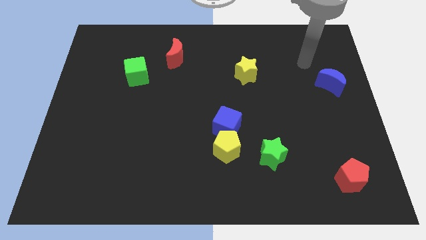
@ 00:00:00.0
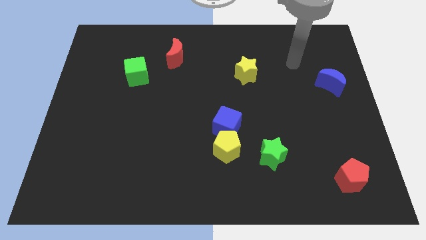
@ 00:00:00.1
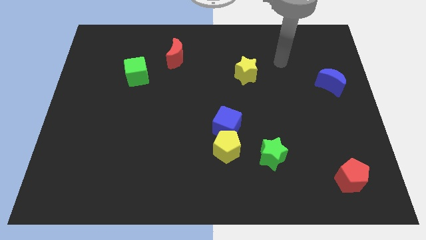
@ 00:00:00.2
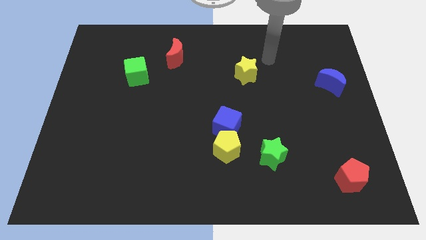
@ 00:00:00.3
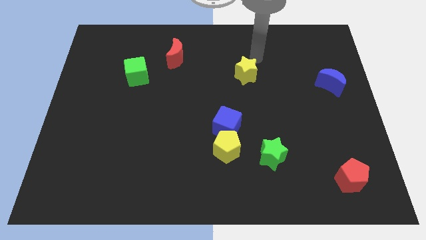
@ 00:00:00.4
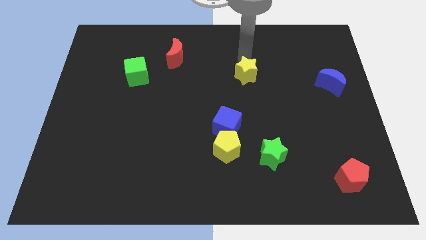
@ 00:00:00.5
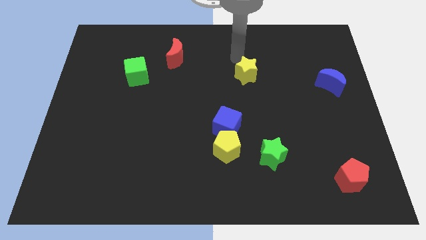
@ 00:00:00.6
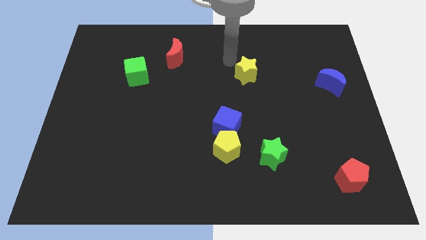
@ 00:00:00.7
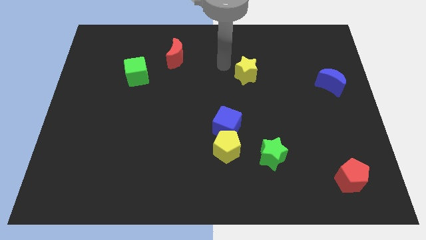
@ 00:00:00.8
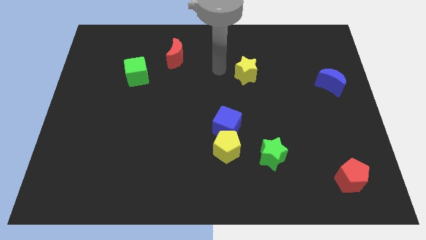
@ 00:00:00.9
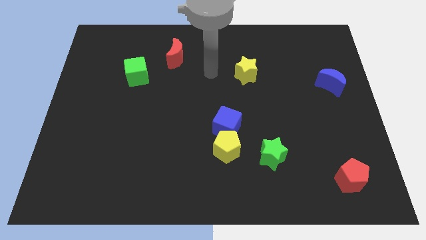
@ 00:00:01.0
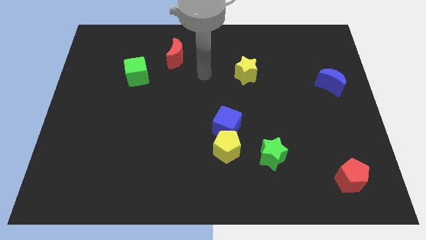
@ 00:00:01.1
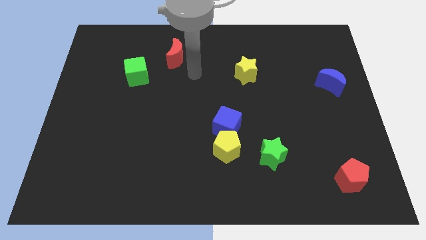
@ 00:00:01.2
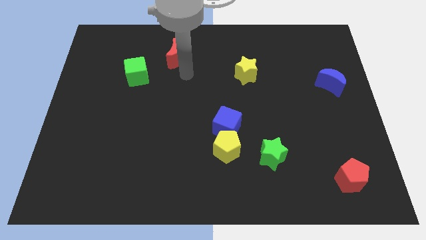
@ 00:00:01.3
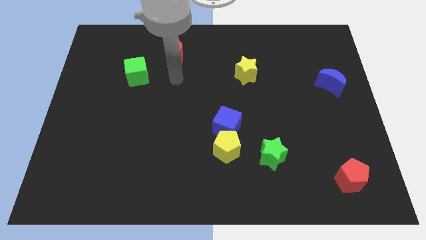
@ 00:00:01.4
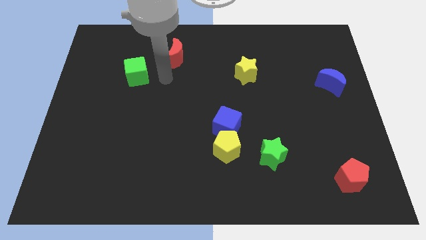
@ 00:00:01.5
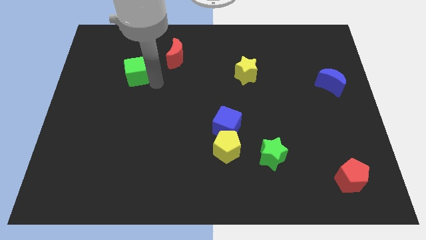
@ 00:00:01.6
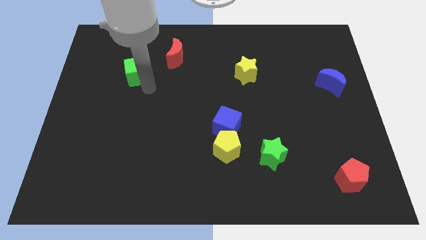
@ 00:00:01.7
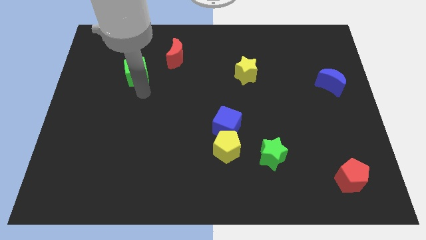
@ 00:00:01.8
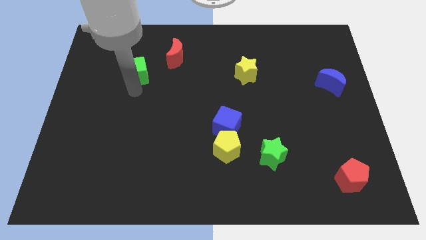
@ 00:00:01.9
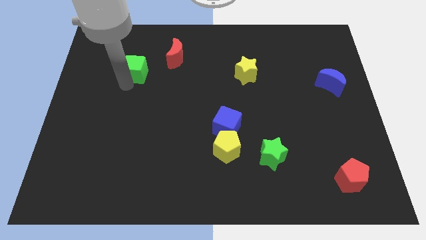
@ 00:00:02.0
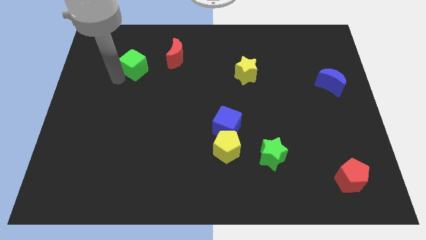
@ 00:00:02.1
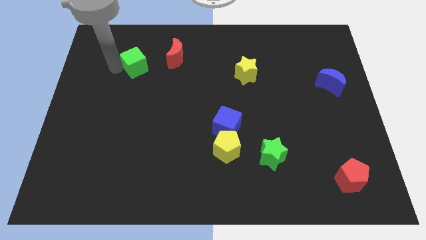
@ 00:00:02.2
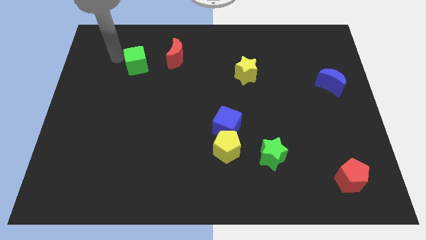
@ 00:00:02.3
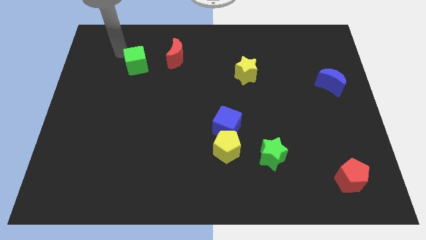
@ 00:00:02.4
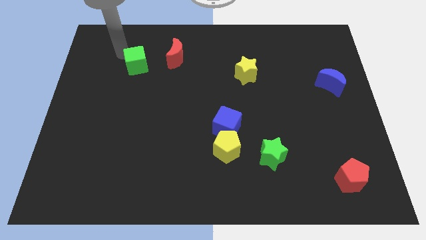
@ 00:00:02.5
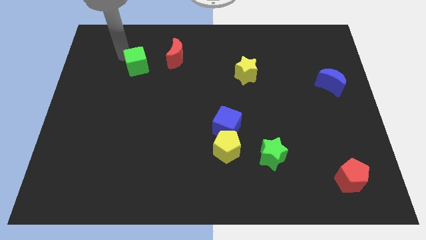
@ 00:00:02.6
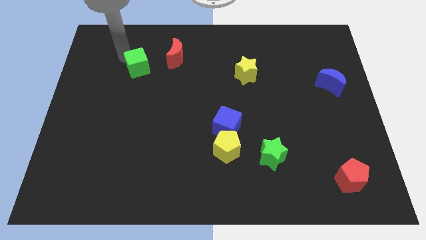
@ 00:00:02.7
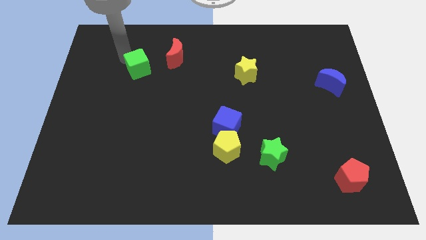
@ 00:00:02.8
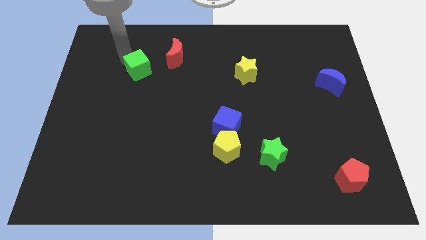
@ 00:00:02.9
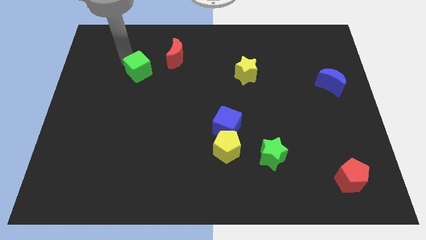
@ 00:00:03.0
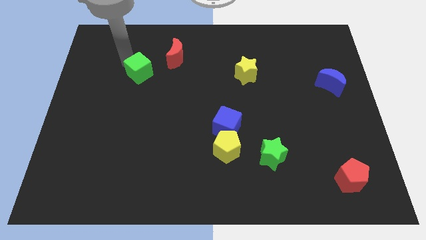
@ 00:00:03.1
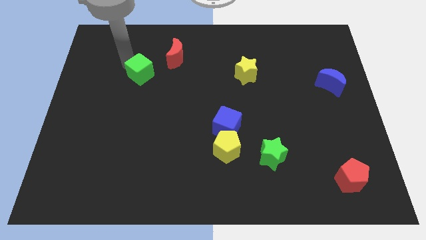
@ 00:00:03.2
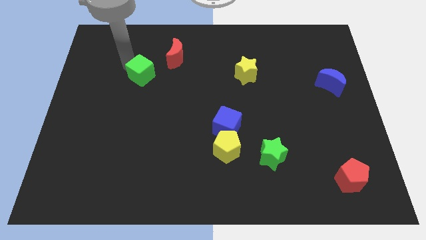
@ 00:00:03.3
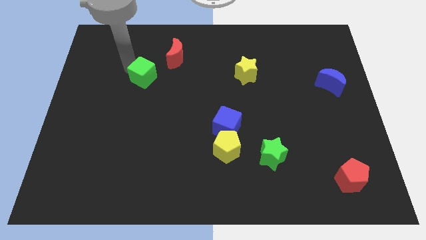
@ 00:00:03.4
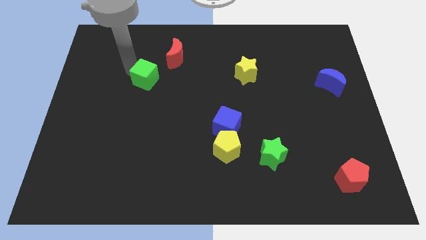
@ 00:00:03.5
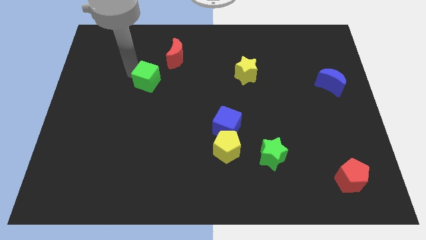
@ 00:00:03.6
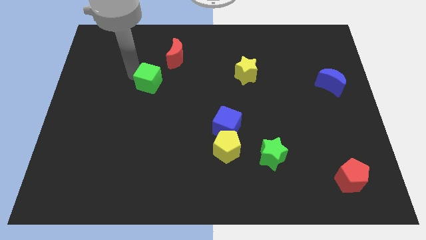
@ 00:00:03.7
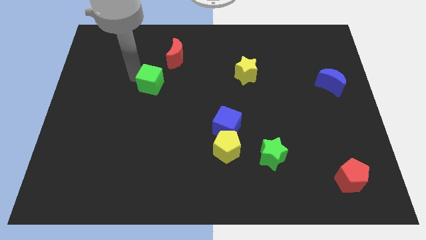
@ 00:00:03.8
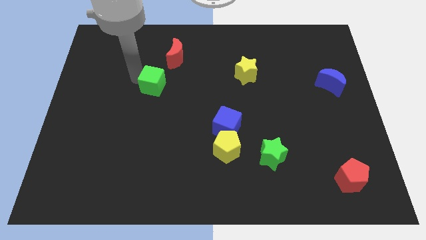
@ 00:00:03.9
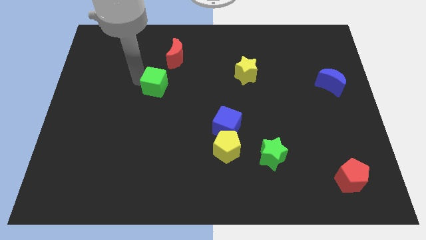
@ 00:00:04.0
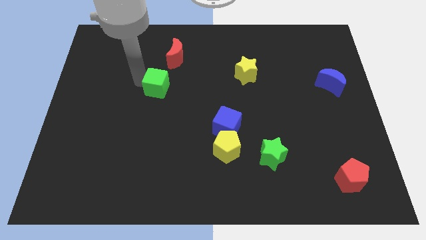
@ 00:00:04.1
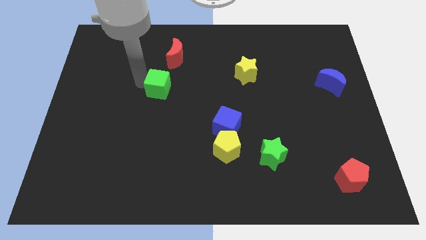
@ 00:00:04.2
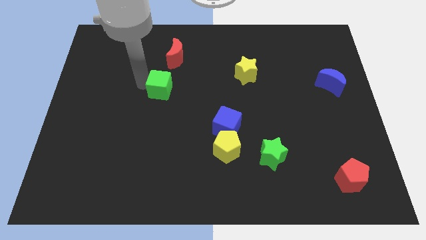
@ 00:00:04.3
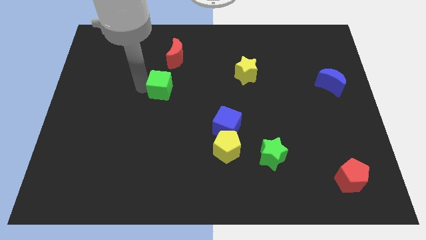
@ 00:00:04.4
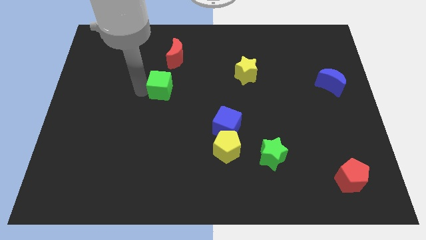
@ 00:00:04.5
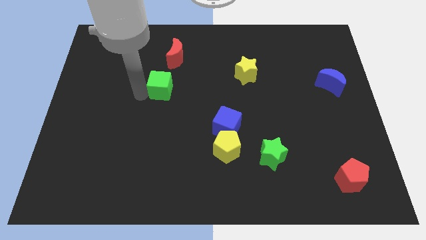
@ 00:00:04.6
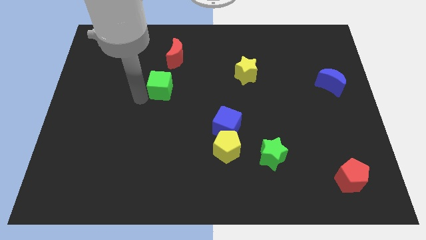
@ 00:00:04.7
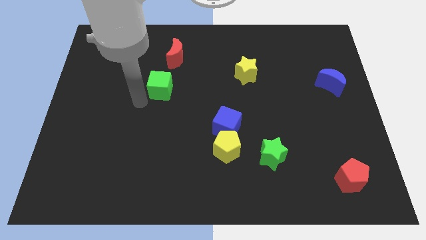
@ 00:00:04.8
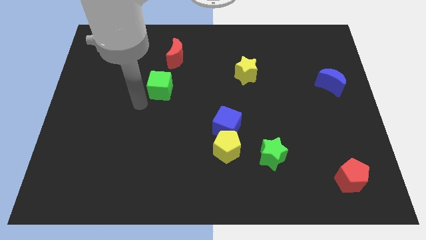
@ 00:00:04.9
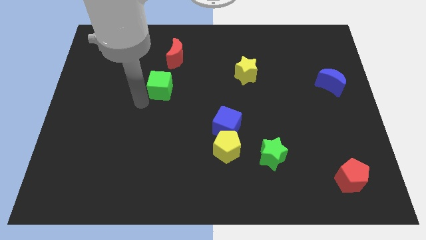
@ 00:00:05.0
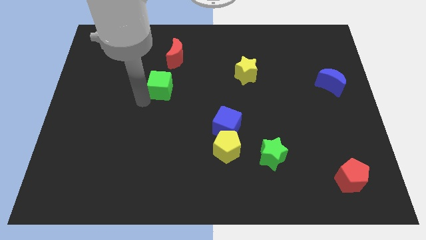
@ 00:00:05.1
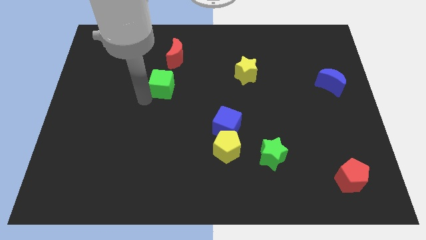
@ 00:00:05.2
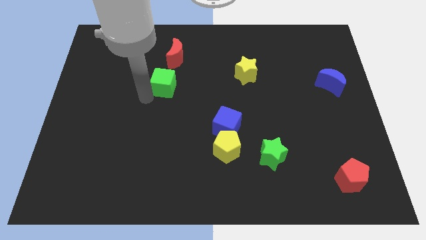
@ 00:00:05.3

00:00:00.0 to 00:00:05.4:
slightly move the green cube right

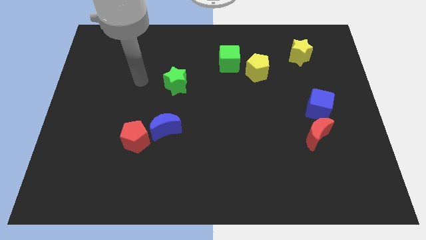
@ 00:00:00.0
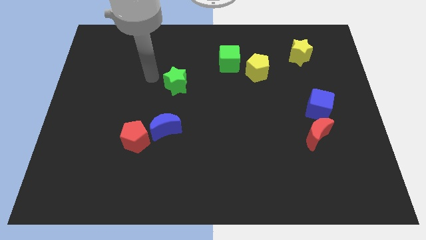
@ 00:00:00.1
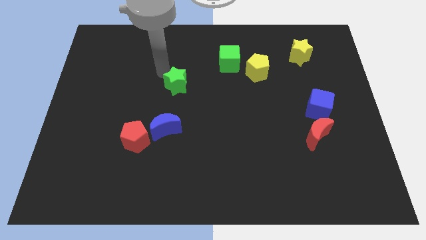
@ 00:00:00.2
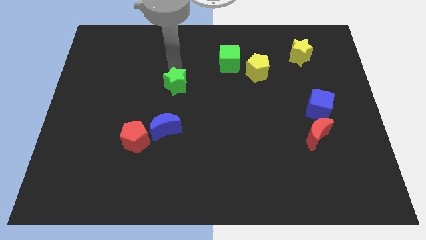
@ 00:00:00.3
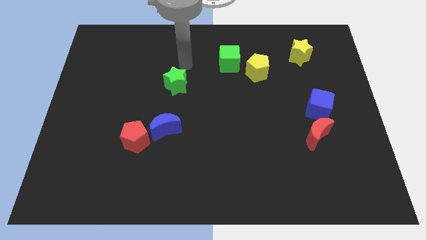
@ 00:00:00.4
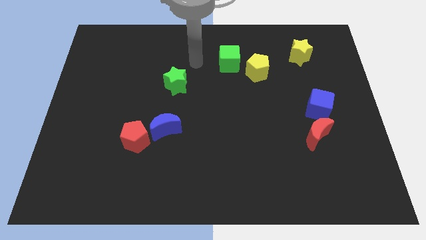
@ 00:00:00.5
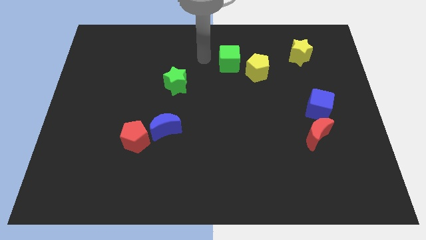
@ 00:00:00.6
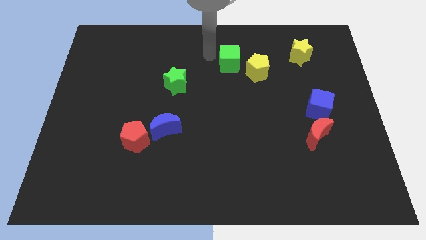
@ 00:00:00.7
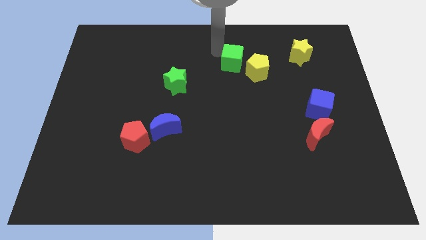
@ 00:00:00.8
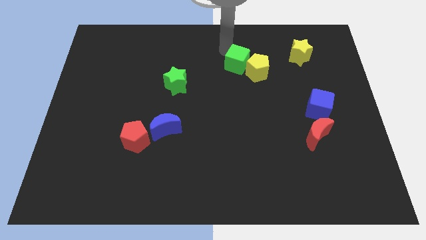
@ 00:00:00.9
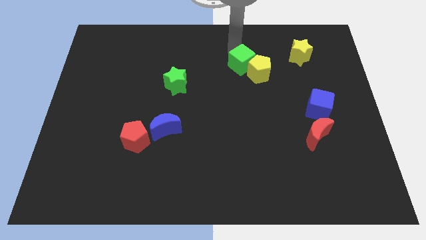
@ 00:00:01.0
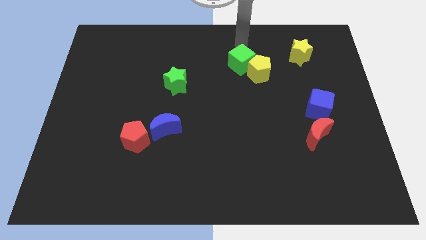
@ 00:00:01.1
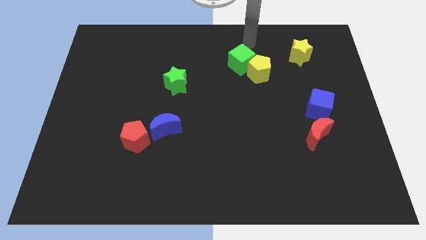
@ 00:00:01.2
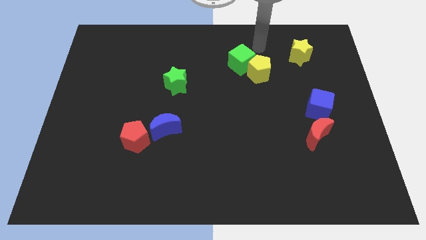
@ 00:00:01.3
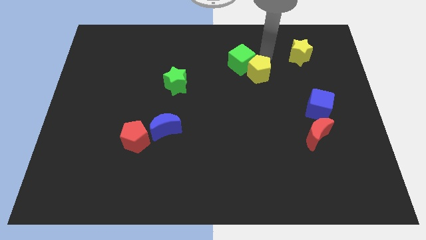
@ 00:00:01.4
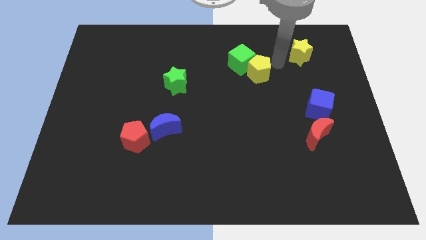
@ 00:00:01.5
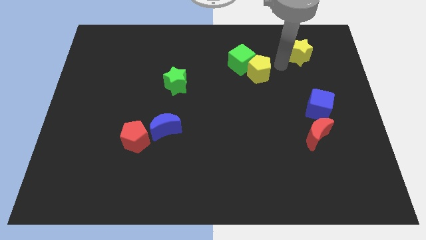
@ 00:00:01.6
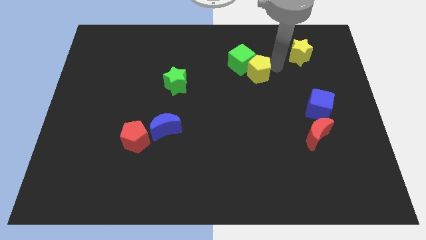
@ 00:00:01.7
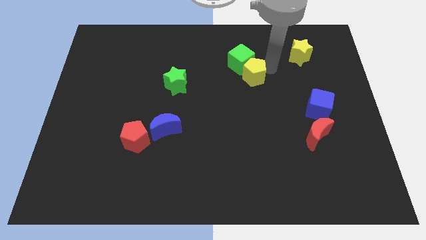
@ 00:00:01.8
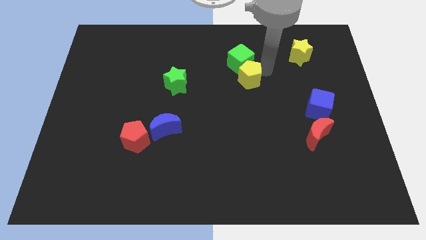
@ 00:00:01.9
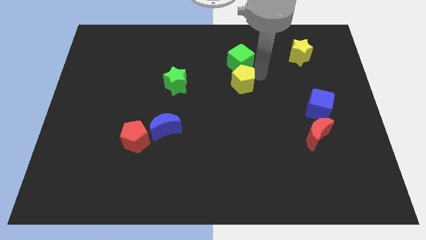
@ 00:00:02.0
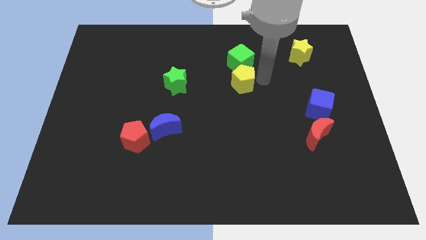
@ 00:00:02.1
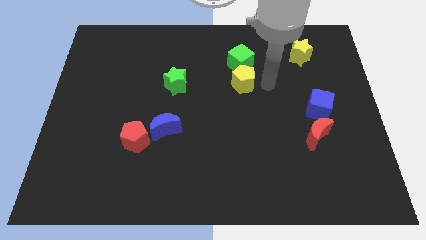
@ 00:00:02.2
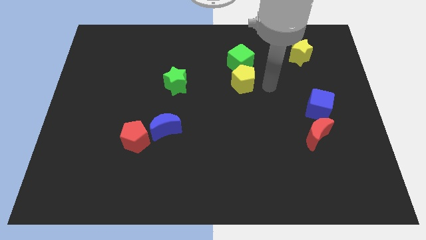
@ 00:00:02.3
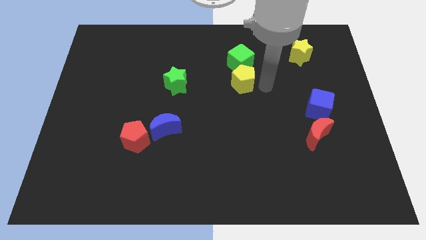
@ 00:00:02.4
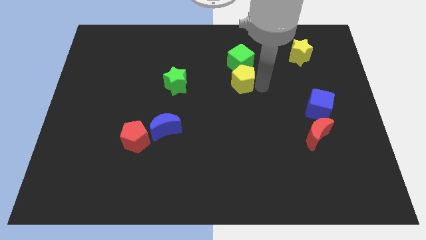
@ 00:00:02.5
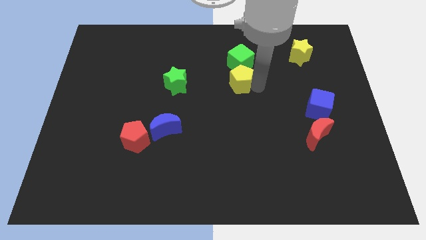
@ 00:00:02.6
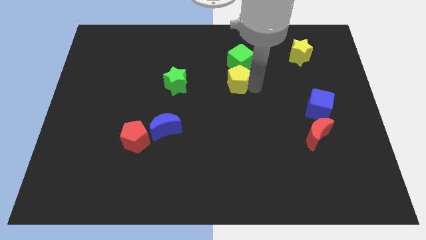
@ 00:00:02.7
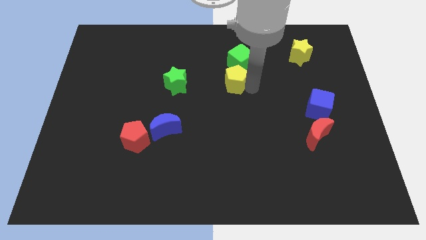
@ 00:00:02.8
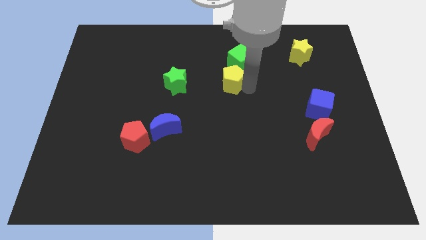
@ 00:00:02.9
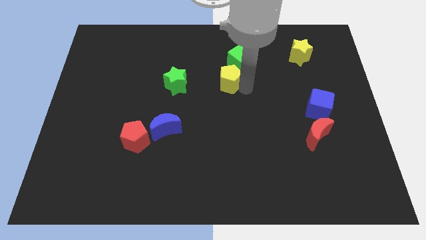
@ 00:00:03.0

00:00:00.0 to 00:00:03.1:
slightly slide the yellow pentagon left
